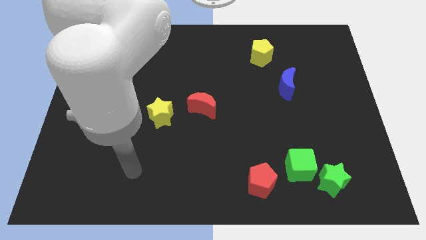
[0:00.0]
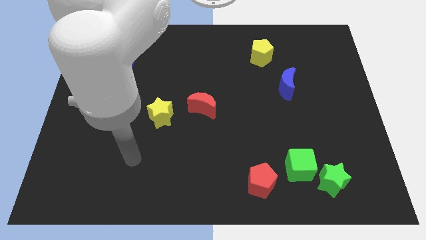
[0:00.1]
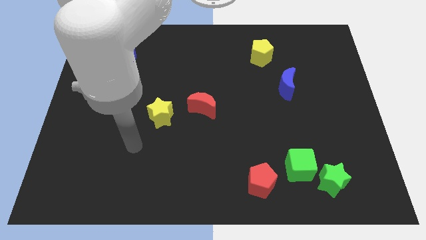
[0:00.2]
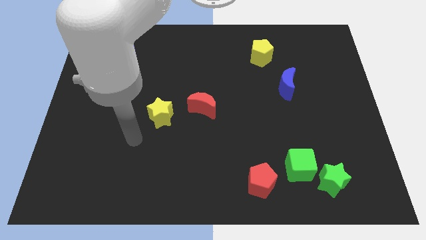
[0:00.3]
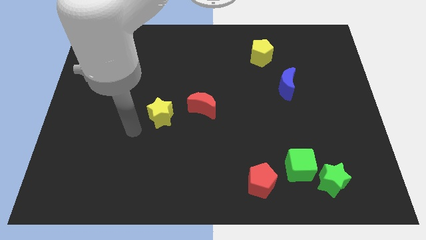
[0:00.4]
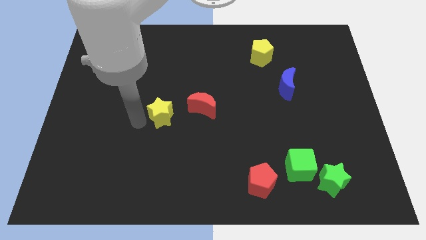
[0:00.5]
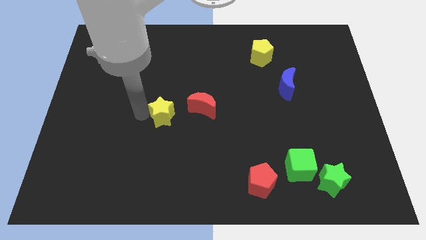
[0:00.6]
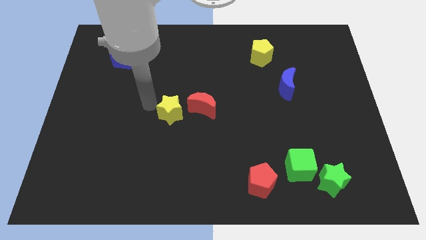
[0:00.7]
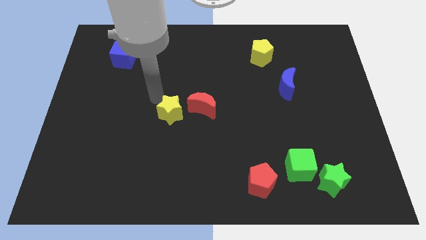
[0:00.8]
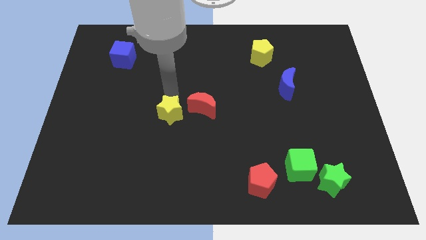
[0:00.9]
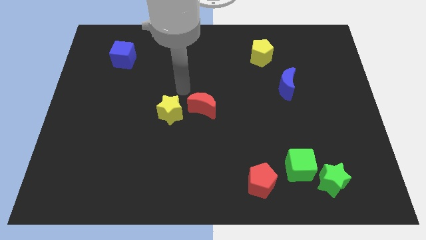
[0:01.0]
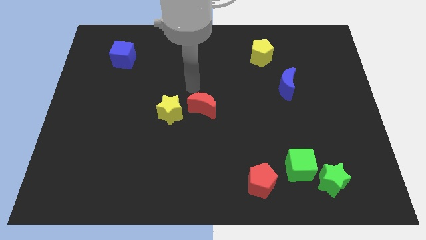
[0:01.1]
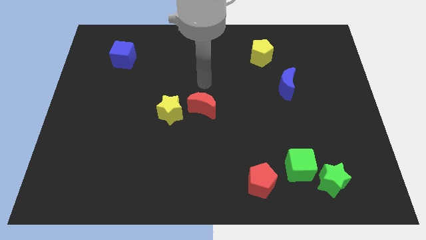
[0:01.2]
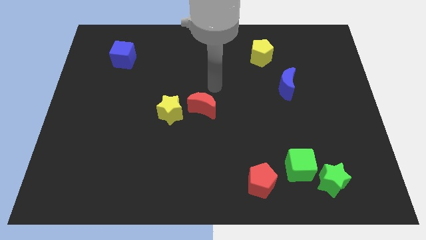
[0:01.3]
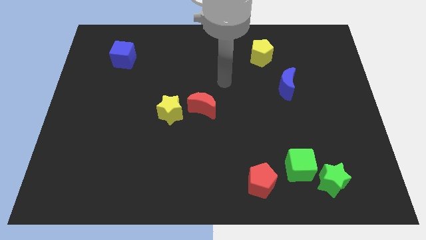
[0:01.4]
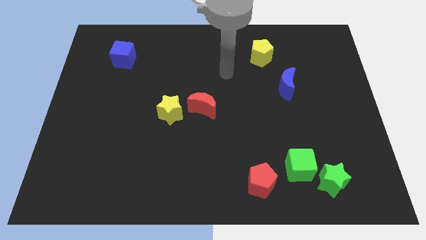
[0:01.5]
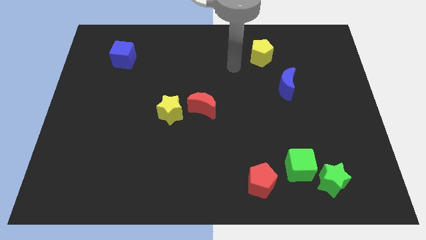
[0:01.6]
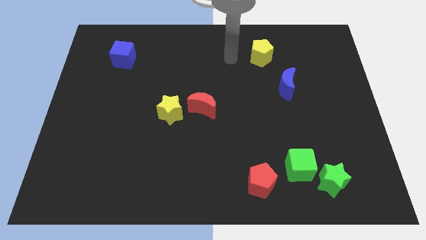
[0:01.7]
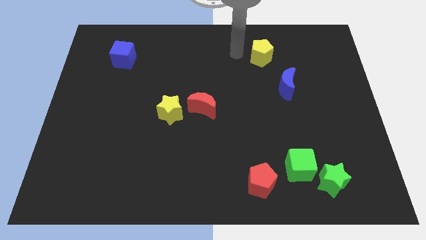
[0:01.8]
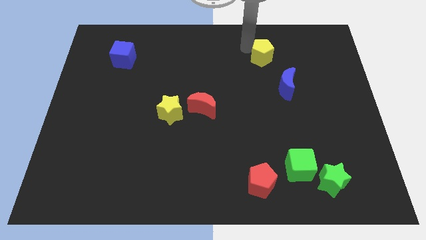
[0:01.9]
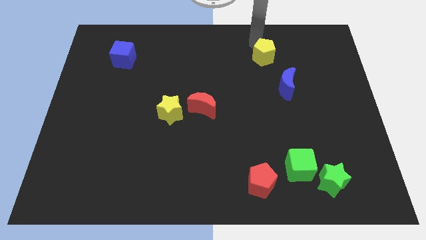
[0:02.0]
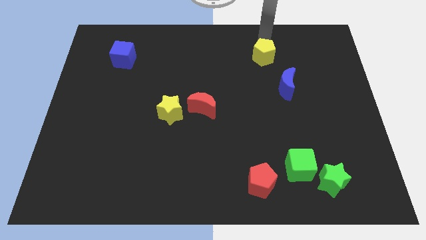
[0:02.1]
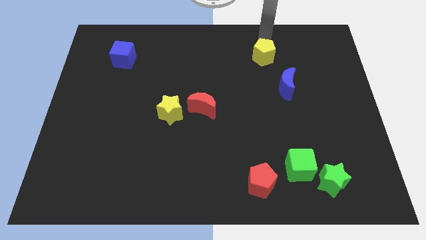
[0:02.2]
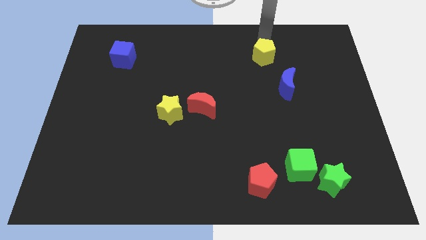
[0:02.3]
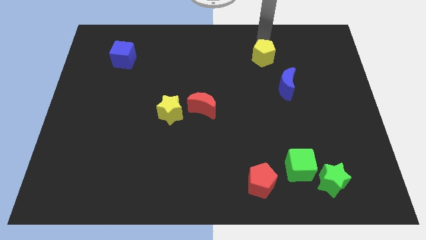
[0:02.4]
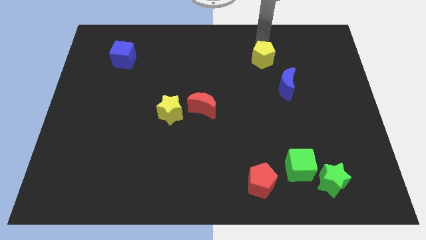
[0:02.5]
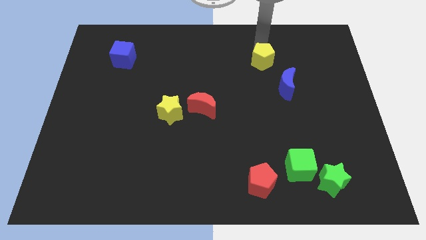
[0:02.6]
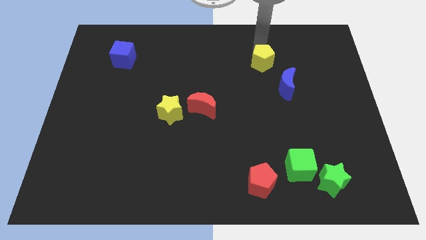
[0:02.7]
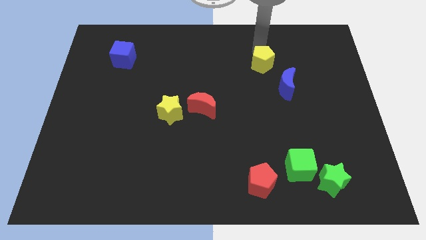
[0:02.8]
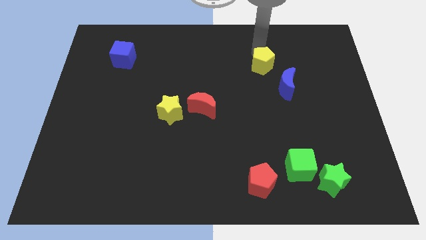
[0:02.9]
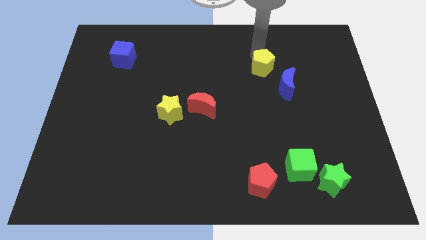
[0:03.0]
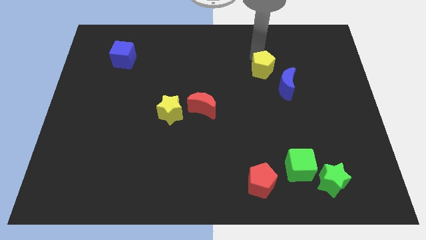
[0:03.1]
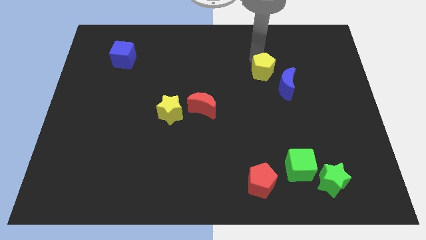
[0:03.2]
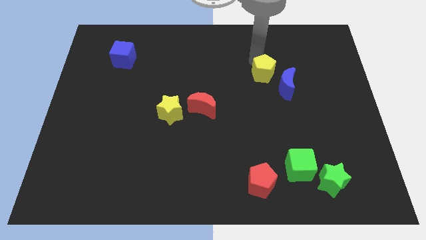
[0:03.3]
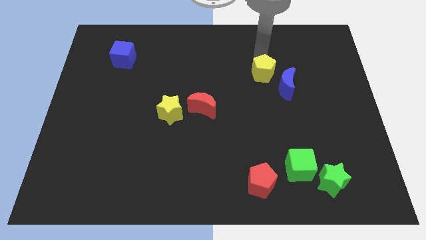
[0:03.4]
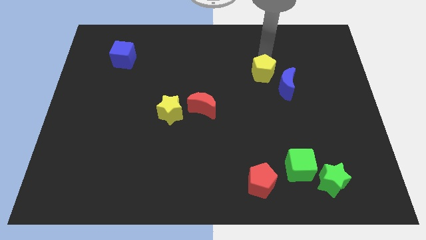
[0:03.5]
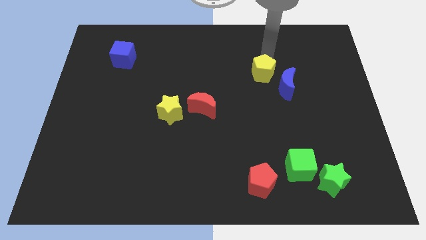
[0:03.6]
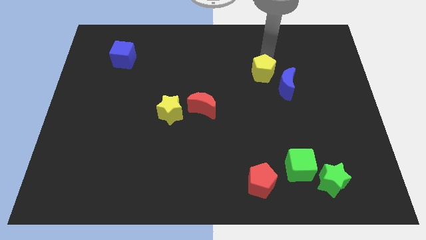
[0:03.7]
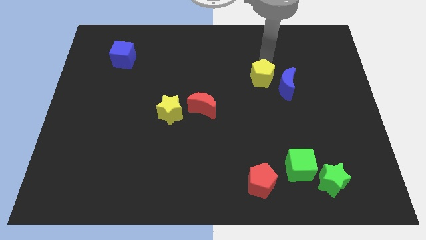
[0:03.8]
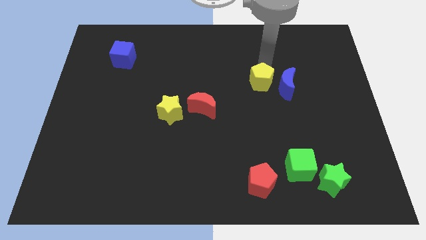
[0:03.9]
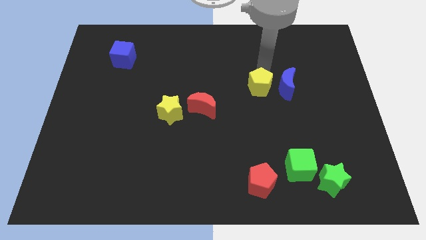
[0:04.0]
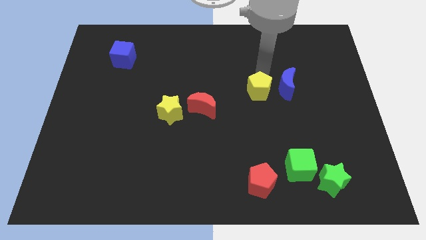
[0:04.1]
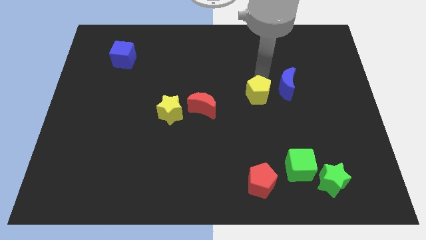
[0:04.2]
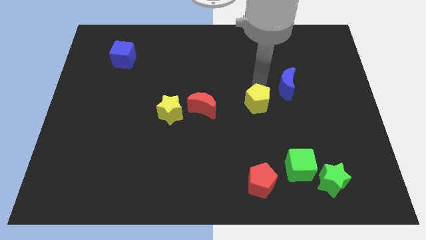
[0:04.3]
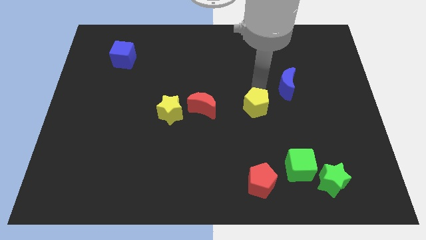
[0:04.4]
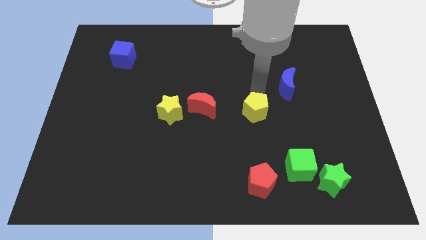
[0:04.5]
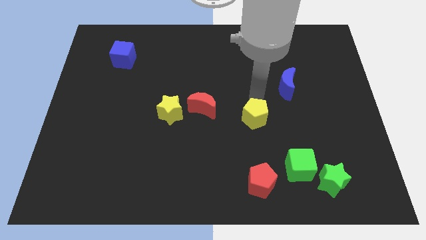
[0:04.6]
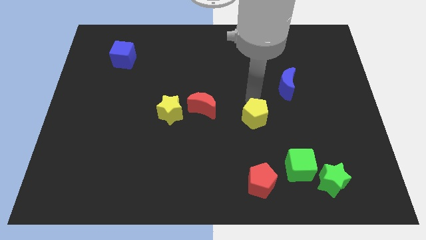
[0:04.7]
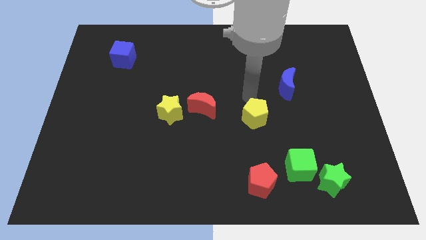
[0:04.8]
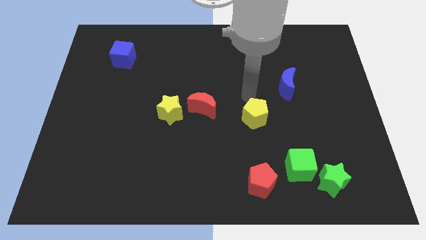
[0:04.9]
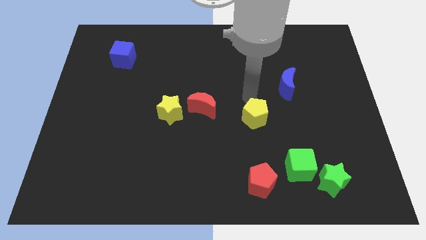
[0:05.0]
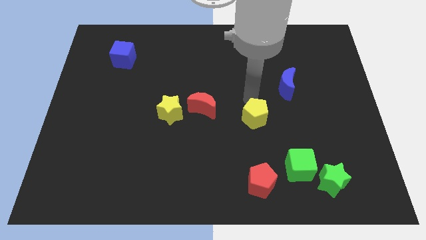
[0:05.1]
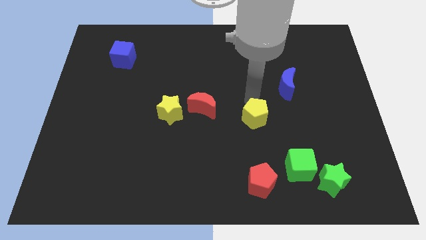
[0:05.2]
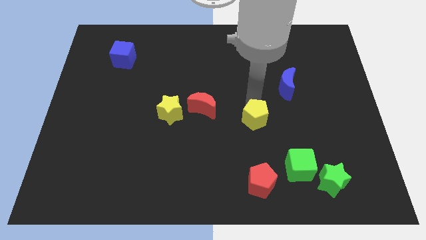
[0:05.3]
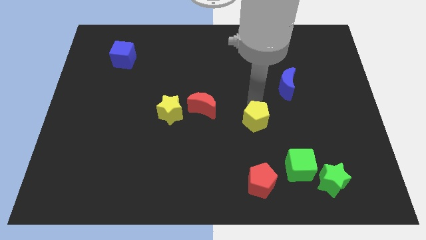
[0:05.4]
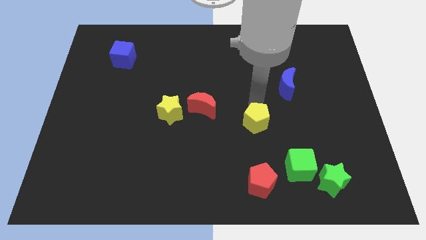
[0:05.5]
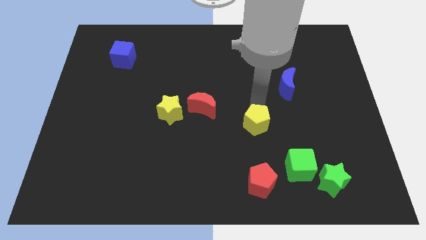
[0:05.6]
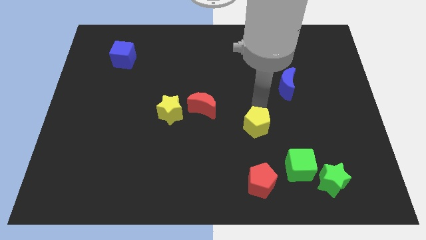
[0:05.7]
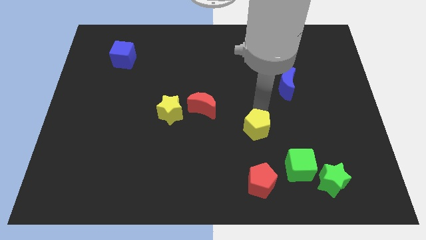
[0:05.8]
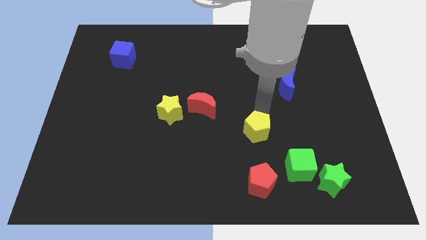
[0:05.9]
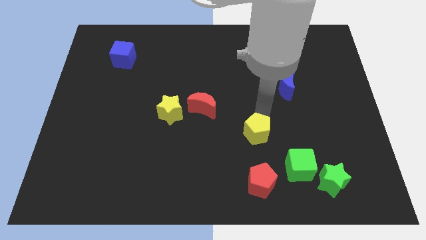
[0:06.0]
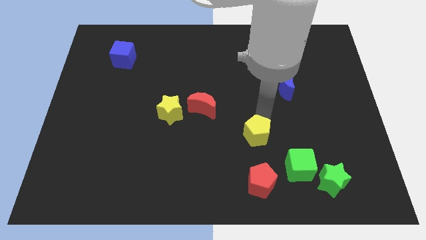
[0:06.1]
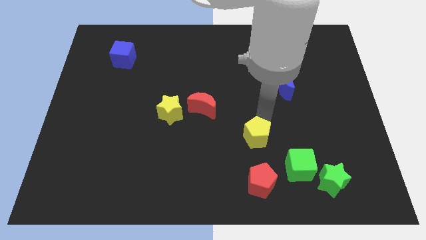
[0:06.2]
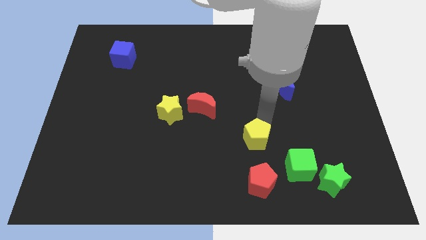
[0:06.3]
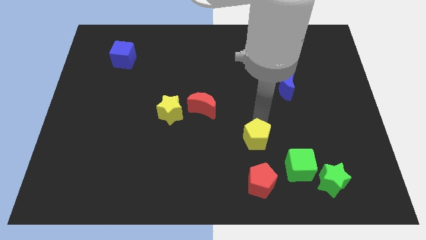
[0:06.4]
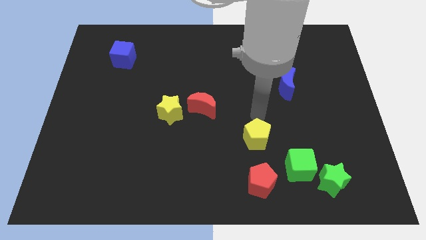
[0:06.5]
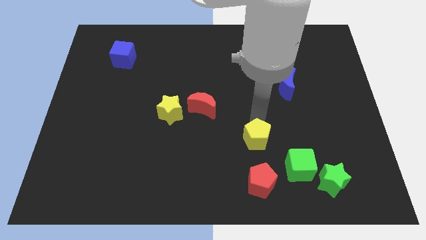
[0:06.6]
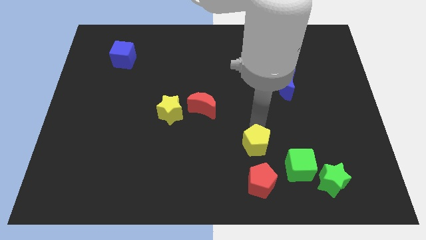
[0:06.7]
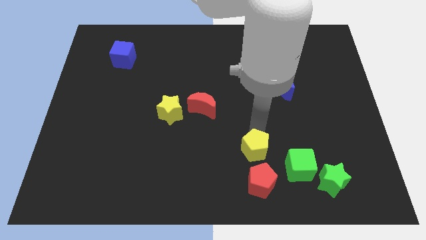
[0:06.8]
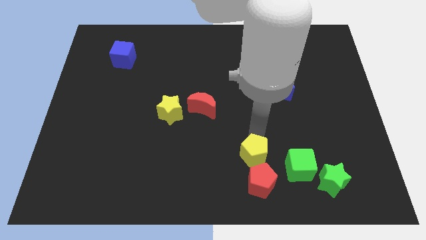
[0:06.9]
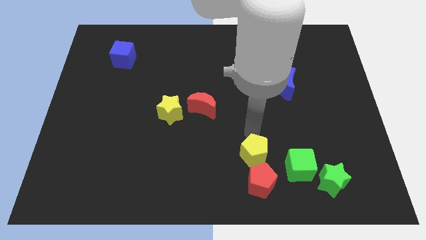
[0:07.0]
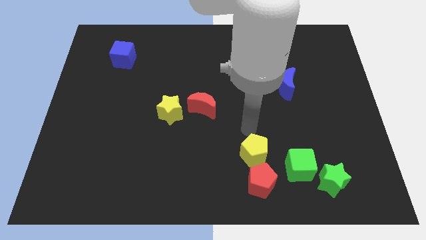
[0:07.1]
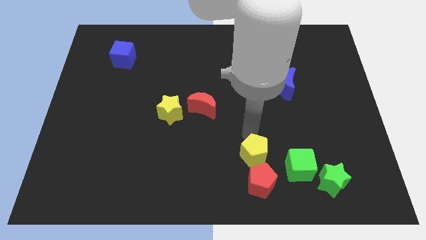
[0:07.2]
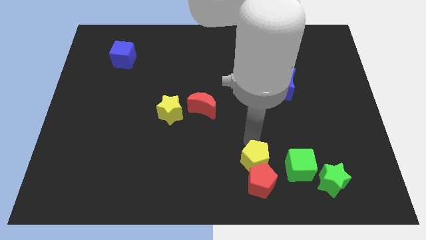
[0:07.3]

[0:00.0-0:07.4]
slide the yellow pentagon close to the red pentagon
